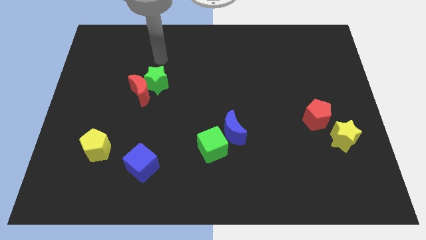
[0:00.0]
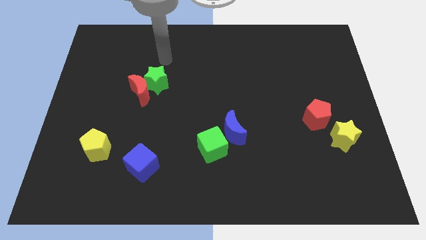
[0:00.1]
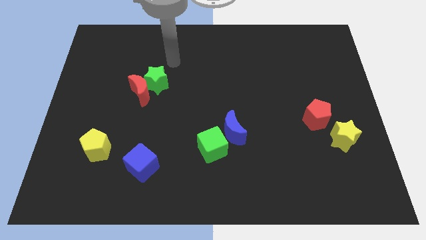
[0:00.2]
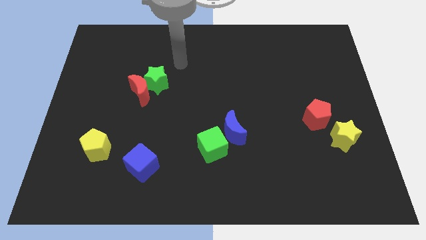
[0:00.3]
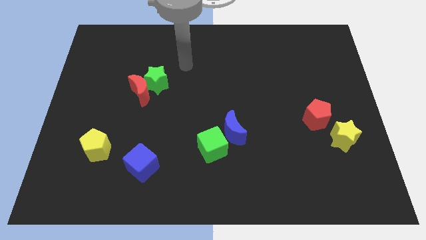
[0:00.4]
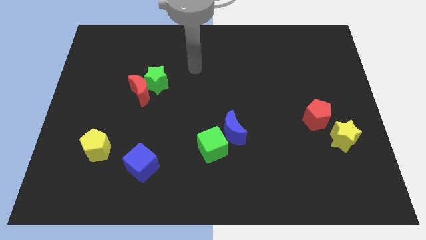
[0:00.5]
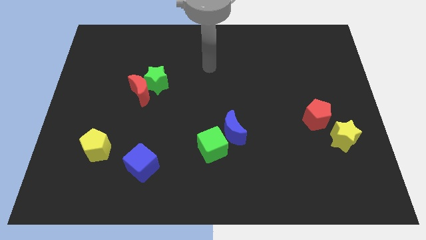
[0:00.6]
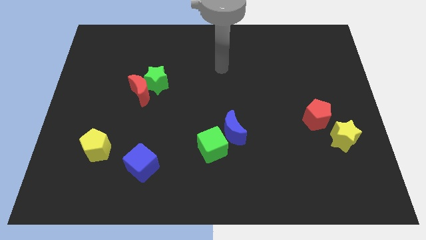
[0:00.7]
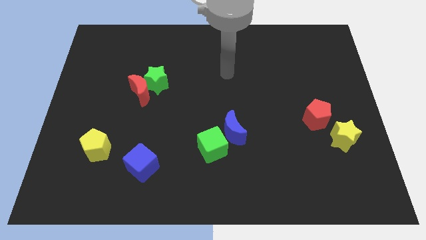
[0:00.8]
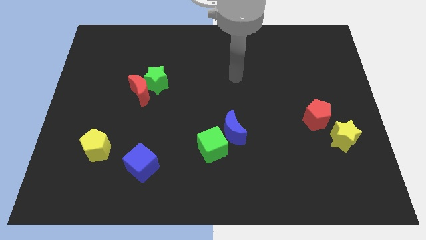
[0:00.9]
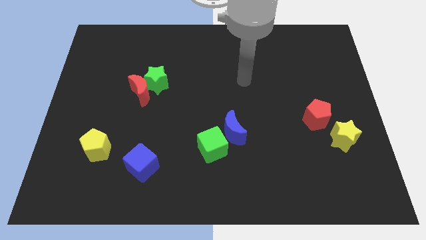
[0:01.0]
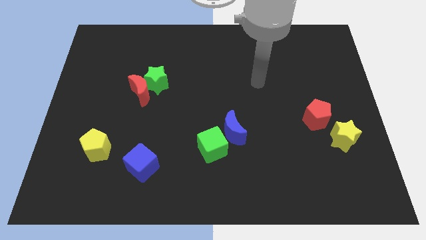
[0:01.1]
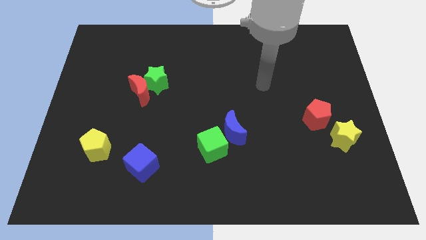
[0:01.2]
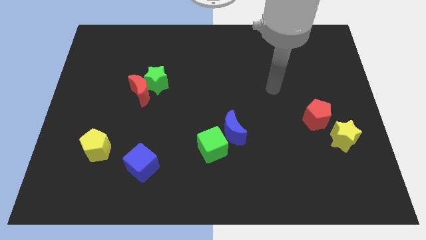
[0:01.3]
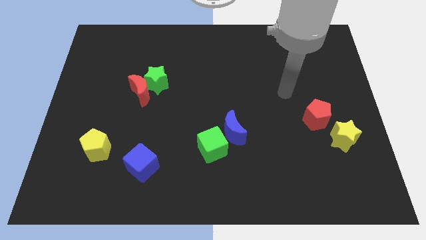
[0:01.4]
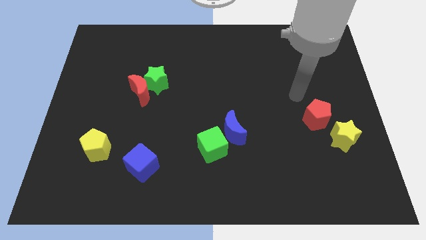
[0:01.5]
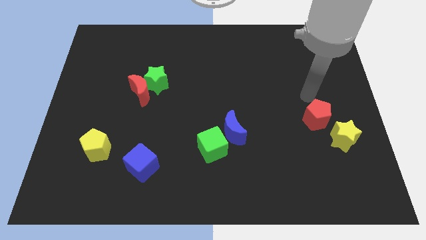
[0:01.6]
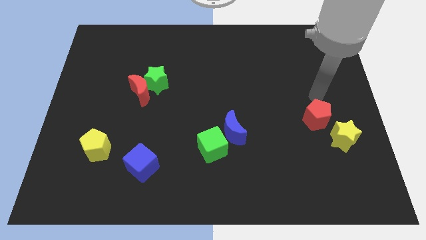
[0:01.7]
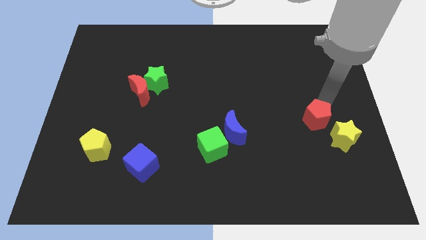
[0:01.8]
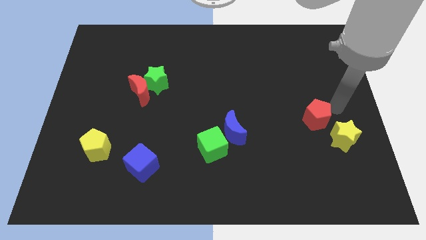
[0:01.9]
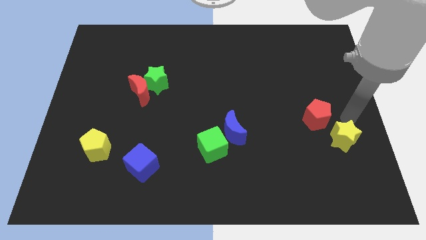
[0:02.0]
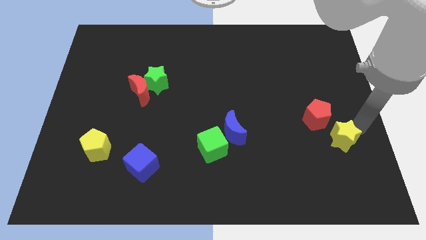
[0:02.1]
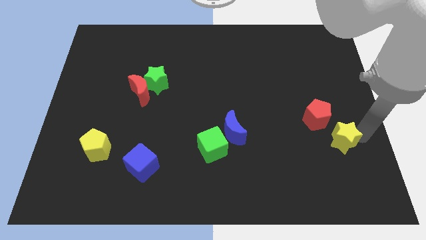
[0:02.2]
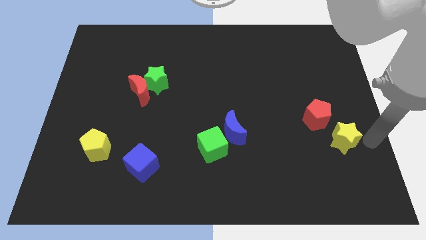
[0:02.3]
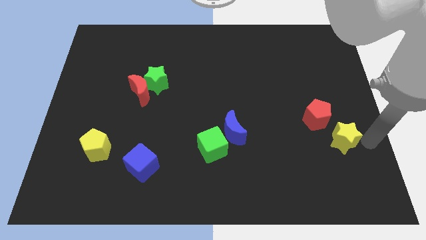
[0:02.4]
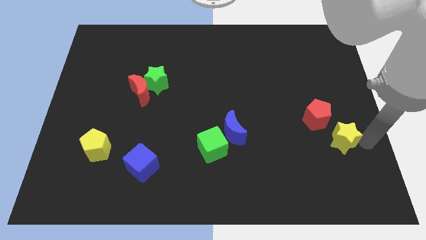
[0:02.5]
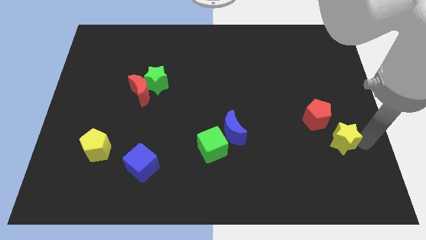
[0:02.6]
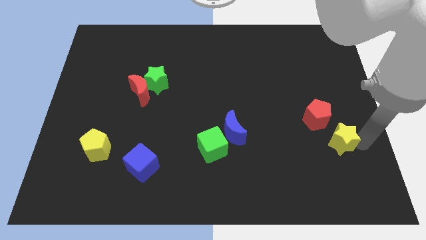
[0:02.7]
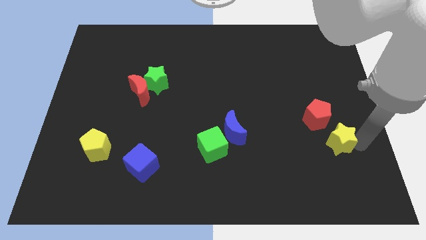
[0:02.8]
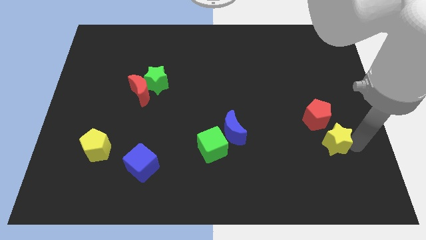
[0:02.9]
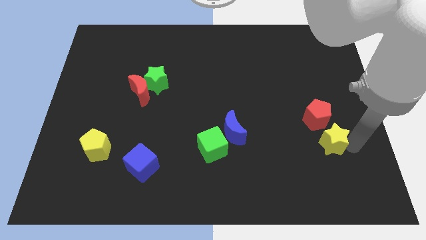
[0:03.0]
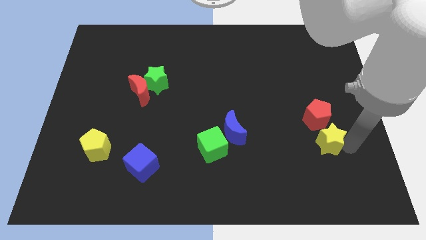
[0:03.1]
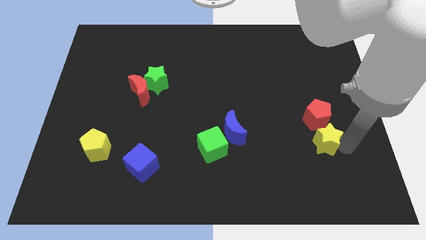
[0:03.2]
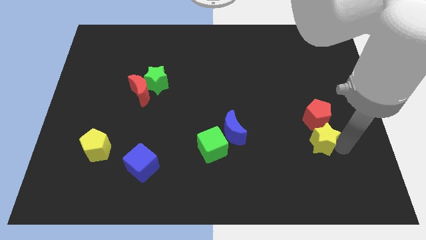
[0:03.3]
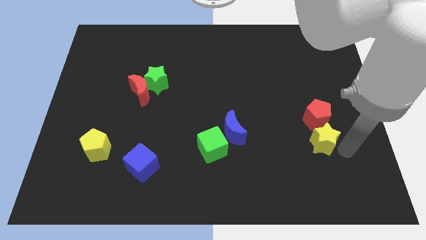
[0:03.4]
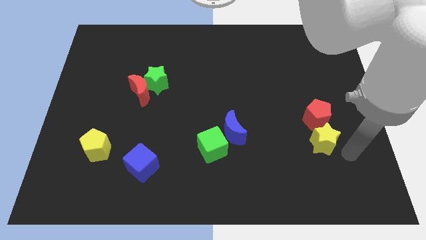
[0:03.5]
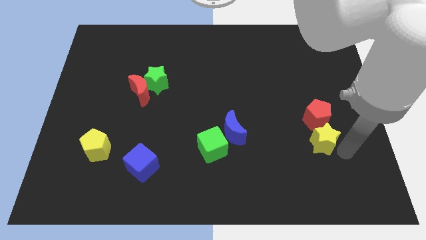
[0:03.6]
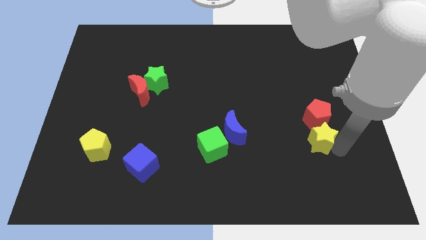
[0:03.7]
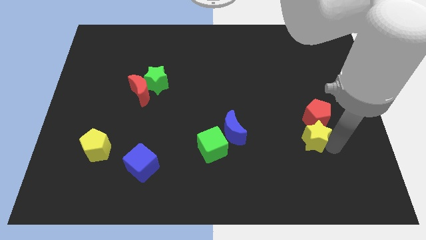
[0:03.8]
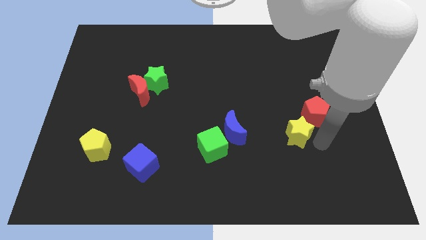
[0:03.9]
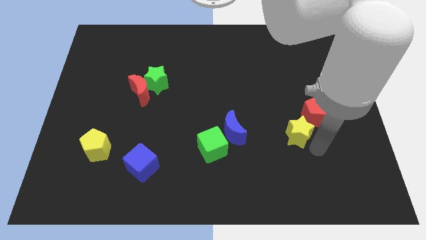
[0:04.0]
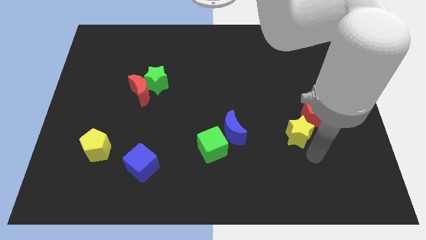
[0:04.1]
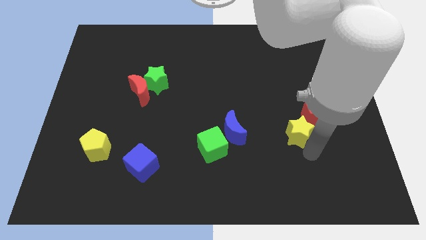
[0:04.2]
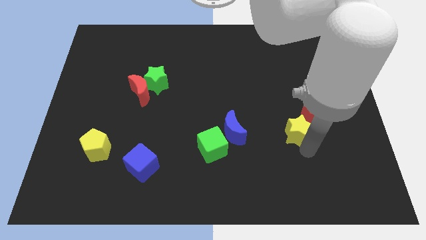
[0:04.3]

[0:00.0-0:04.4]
slide the yellow star diagonally up and to the left a bit

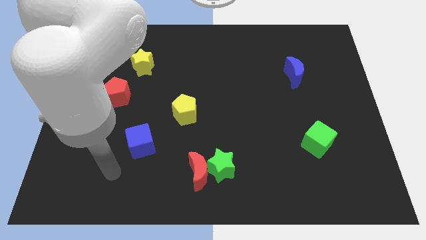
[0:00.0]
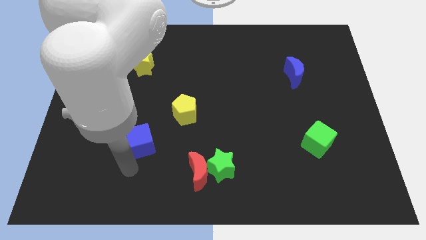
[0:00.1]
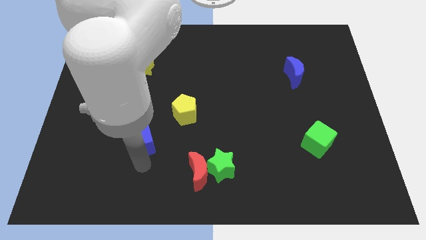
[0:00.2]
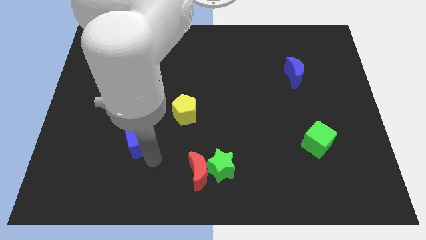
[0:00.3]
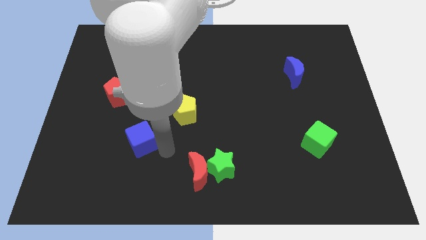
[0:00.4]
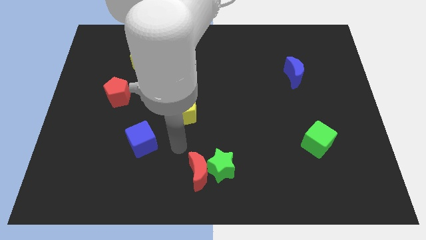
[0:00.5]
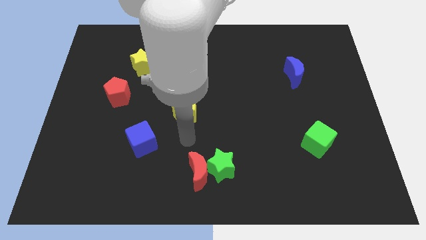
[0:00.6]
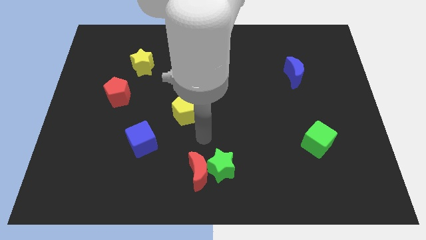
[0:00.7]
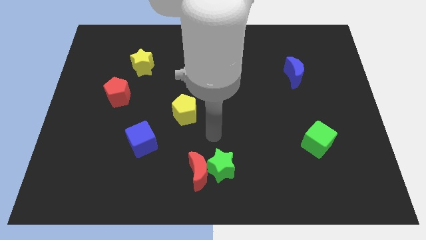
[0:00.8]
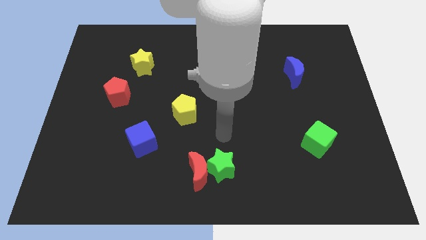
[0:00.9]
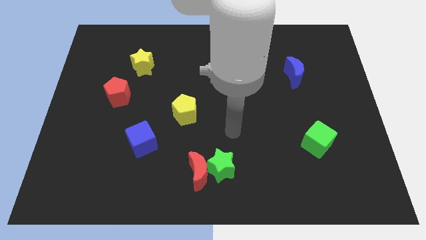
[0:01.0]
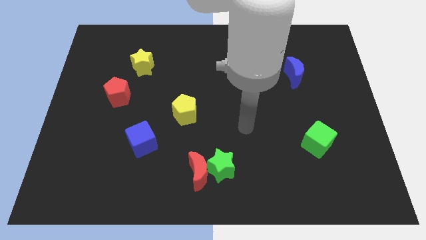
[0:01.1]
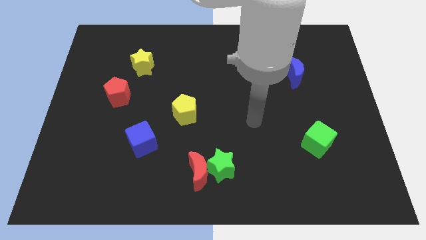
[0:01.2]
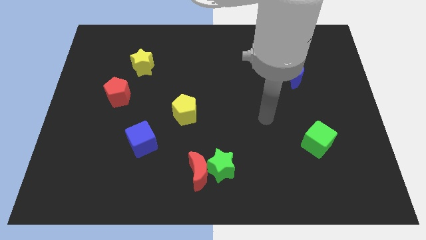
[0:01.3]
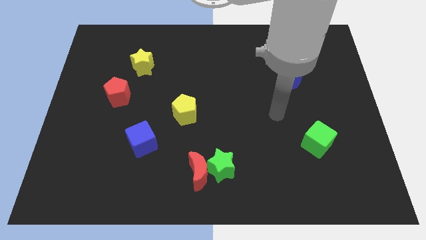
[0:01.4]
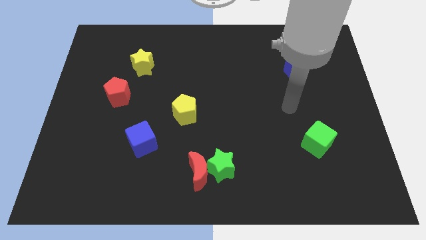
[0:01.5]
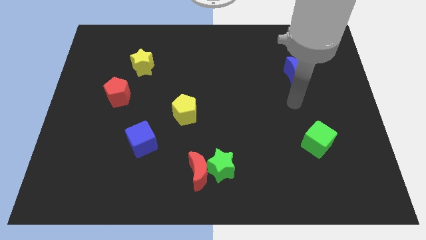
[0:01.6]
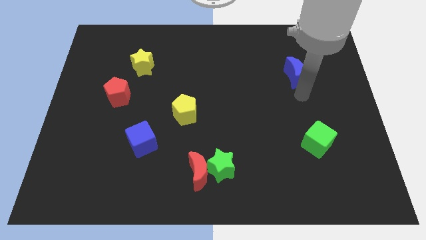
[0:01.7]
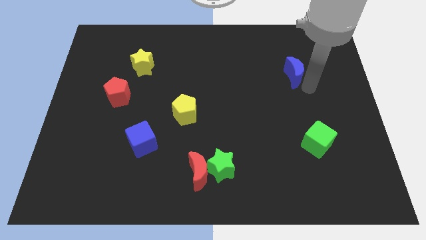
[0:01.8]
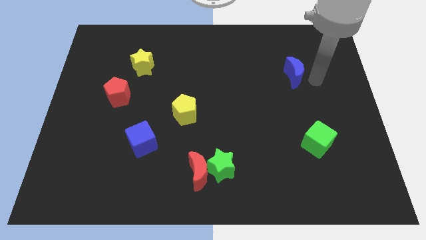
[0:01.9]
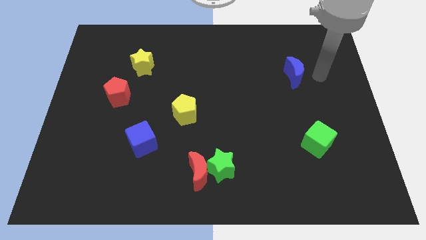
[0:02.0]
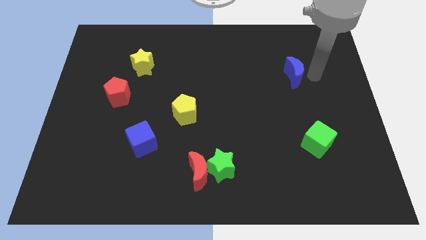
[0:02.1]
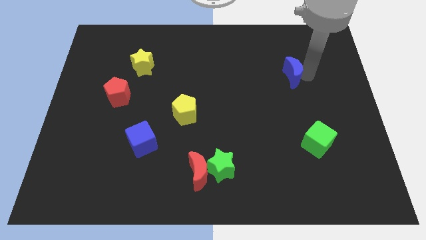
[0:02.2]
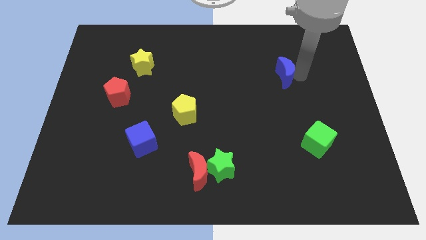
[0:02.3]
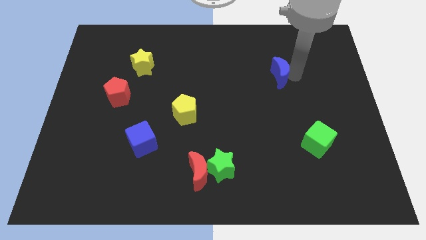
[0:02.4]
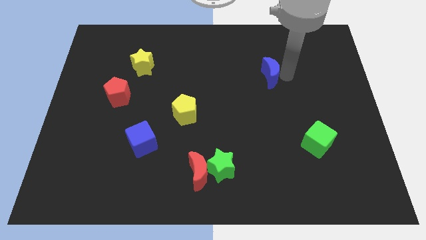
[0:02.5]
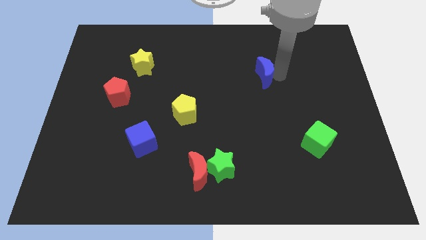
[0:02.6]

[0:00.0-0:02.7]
slide the blue moon a little left

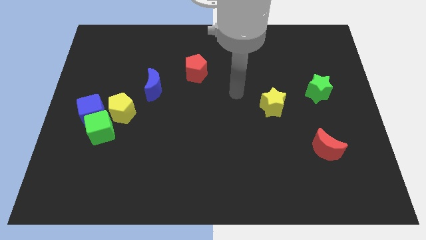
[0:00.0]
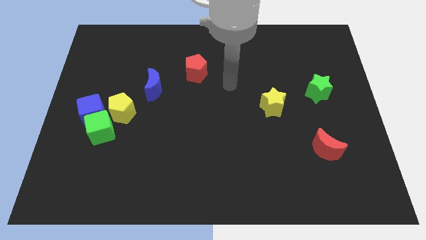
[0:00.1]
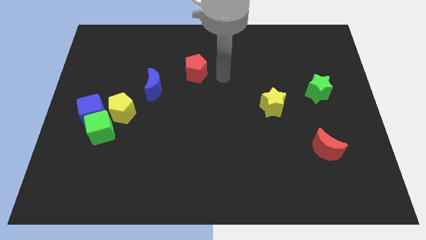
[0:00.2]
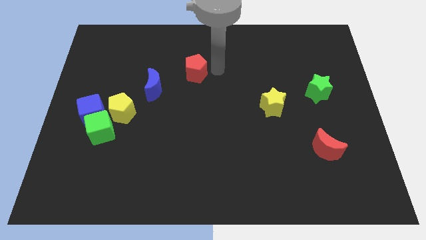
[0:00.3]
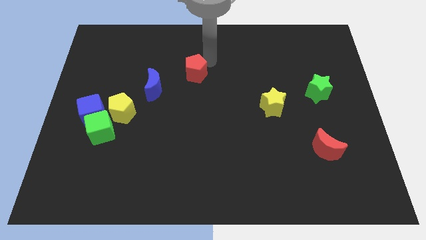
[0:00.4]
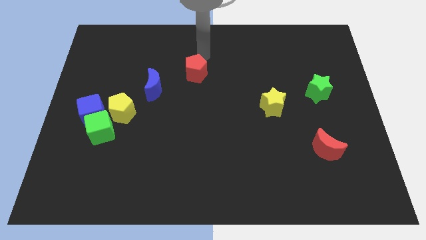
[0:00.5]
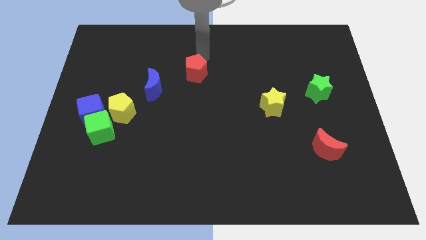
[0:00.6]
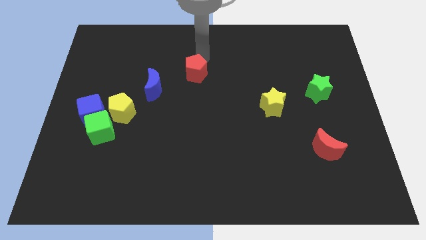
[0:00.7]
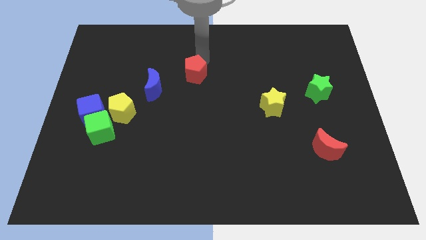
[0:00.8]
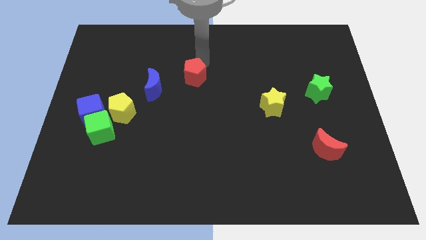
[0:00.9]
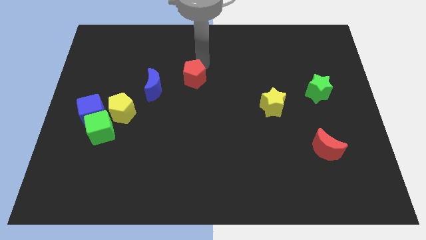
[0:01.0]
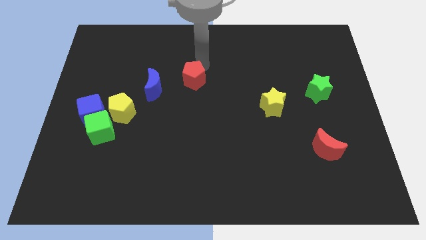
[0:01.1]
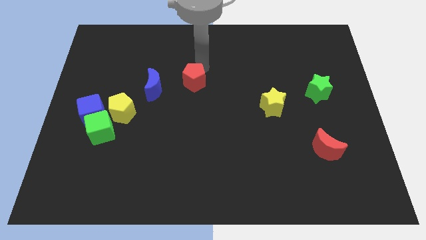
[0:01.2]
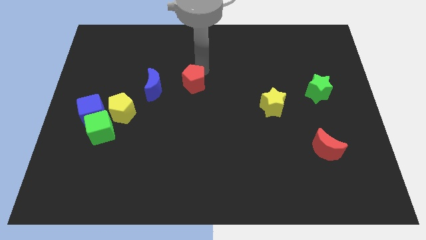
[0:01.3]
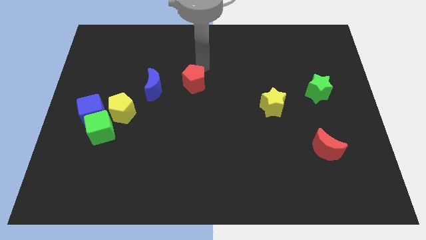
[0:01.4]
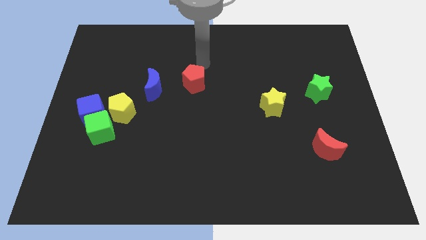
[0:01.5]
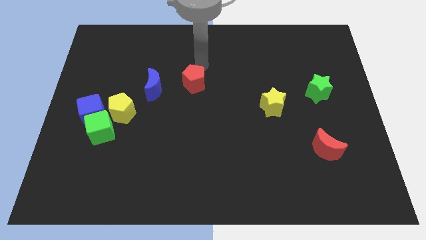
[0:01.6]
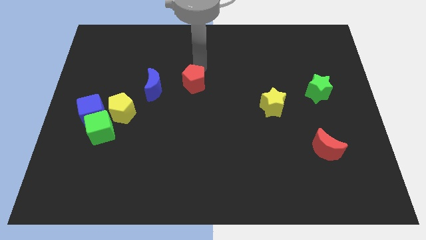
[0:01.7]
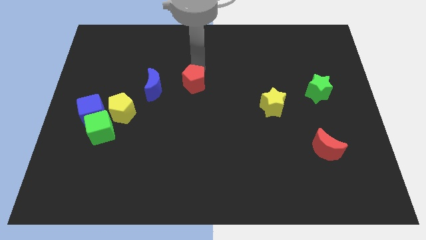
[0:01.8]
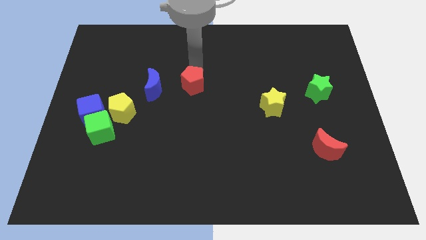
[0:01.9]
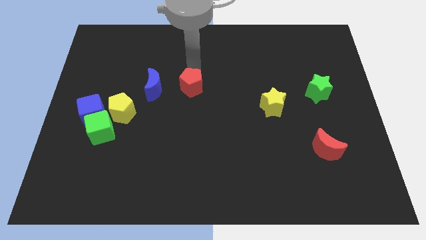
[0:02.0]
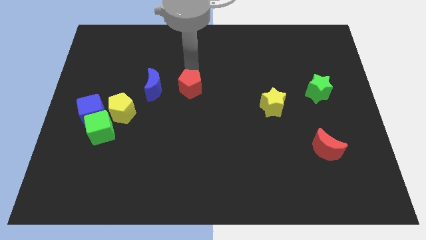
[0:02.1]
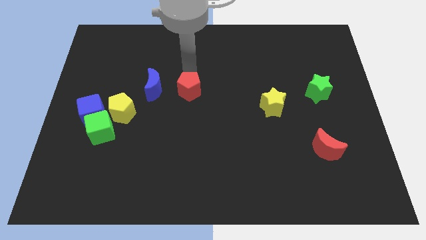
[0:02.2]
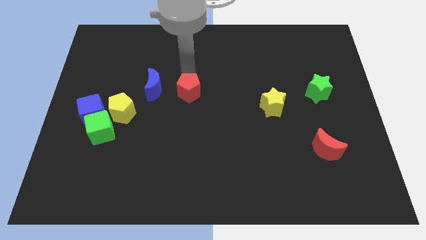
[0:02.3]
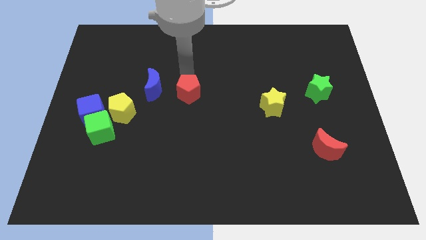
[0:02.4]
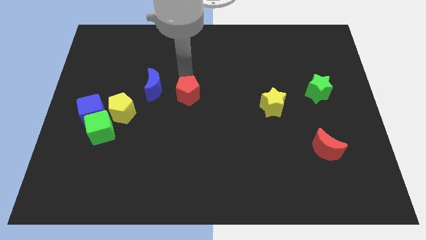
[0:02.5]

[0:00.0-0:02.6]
move the red pentagon slightly down
